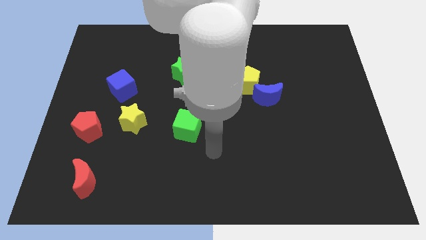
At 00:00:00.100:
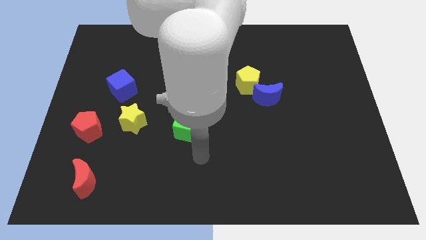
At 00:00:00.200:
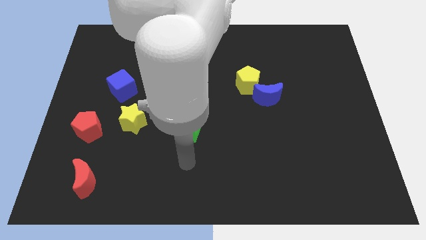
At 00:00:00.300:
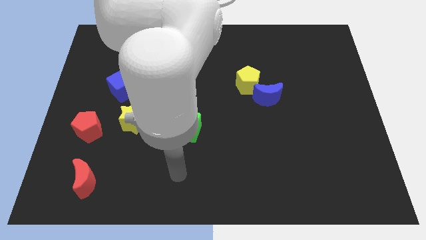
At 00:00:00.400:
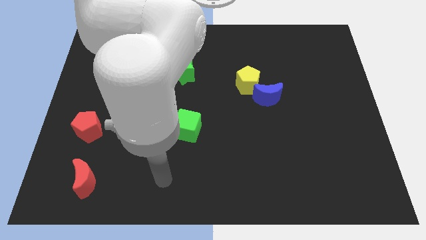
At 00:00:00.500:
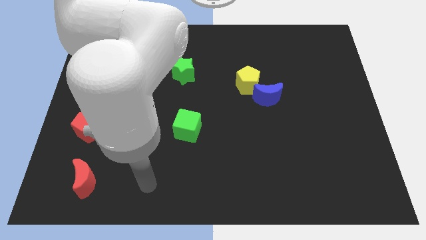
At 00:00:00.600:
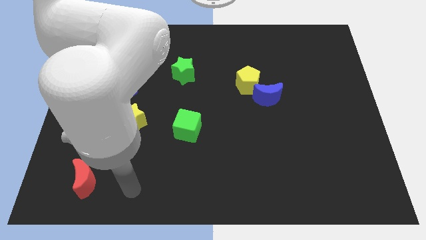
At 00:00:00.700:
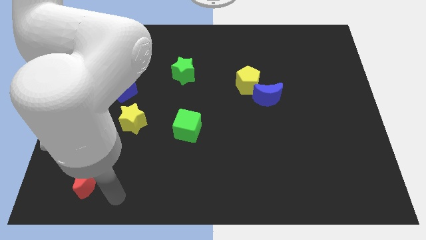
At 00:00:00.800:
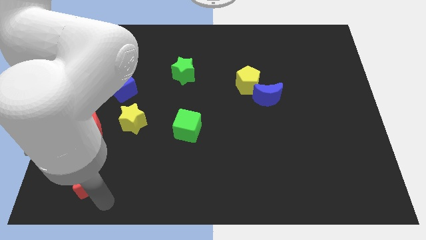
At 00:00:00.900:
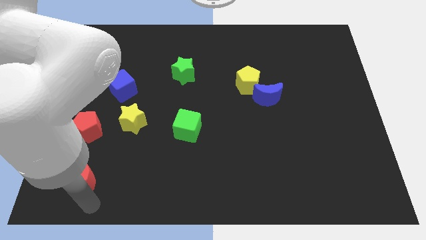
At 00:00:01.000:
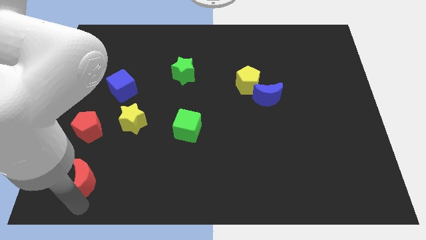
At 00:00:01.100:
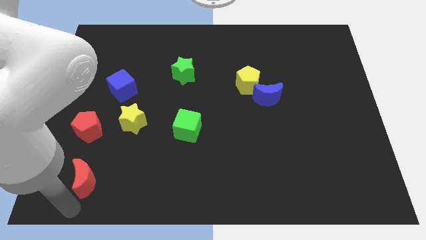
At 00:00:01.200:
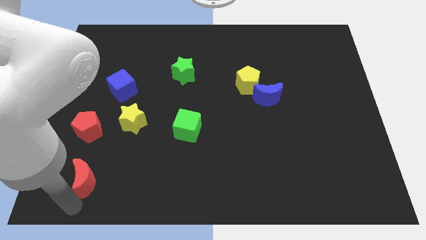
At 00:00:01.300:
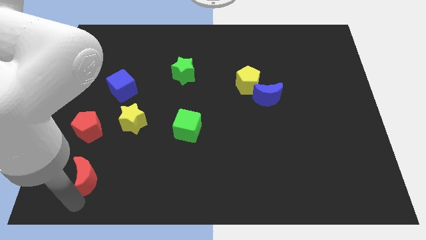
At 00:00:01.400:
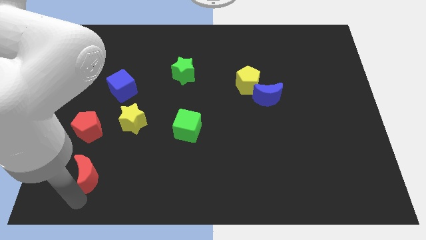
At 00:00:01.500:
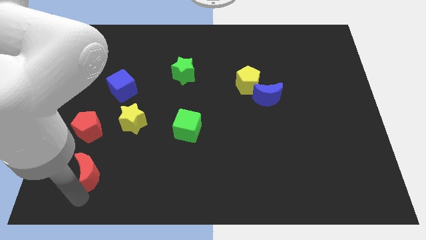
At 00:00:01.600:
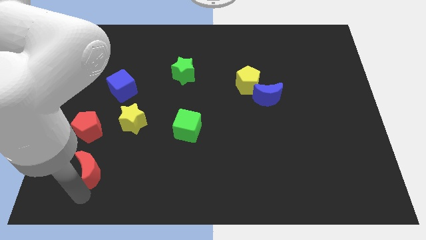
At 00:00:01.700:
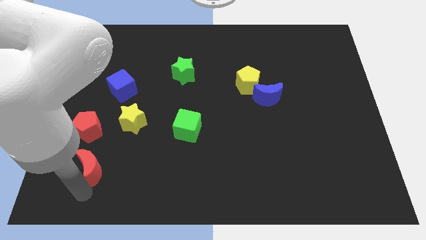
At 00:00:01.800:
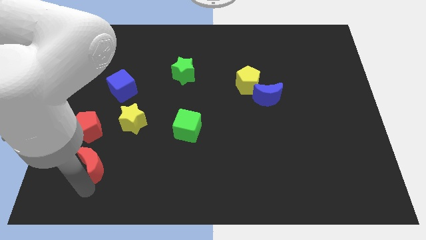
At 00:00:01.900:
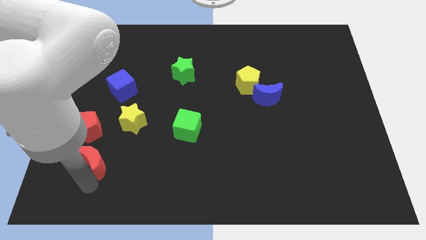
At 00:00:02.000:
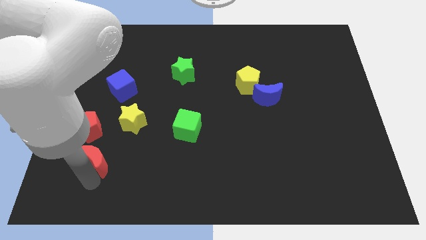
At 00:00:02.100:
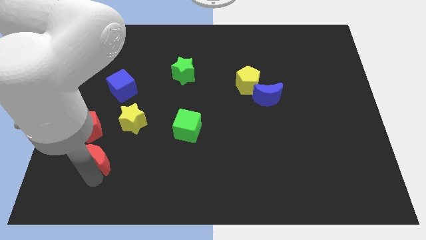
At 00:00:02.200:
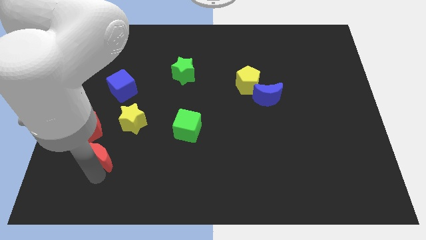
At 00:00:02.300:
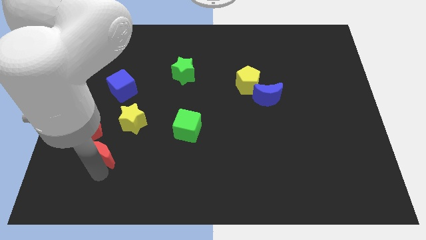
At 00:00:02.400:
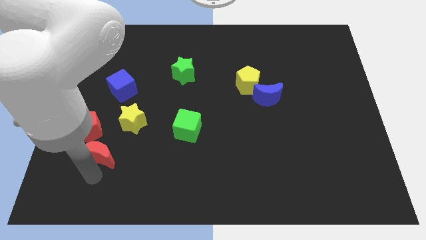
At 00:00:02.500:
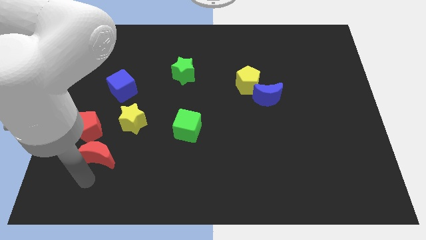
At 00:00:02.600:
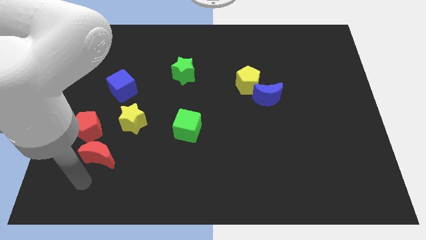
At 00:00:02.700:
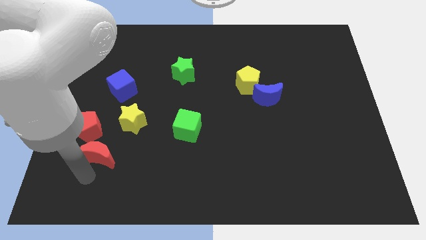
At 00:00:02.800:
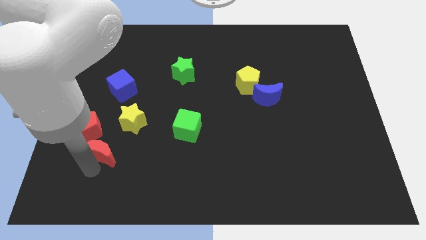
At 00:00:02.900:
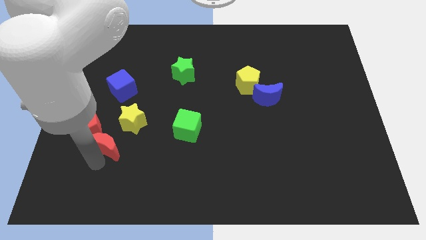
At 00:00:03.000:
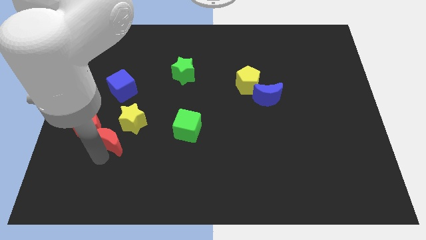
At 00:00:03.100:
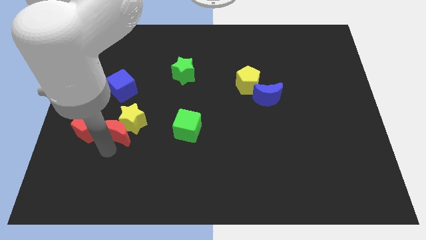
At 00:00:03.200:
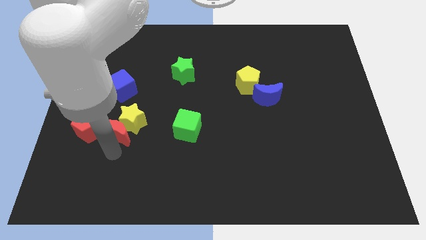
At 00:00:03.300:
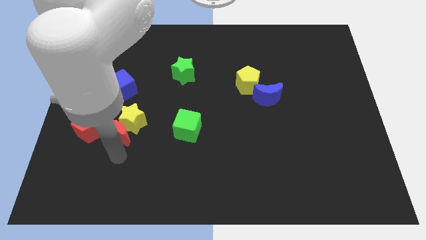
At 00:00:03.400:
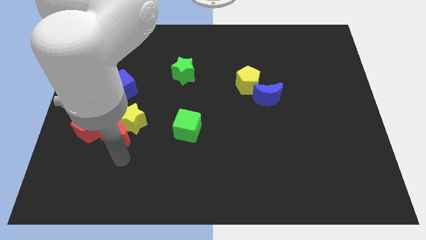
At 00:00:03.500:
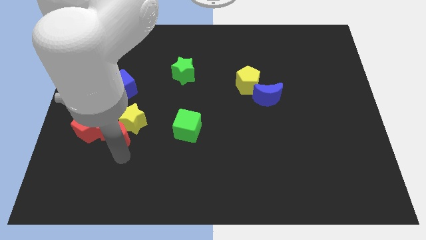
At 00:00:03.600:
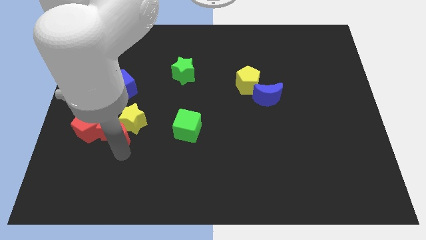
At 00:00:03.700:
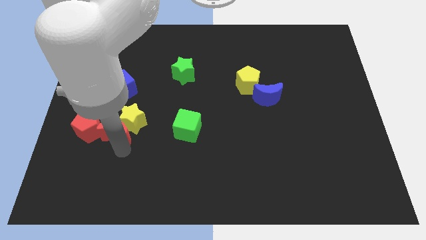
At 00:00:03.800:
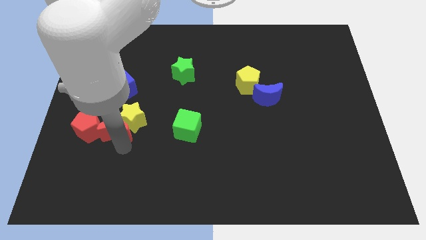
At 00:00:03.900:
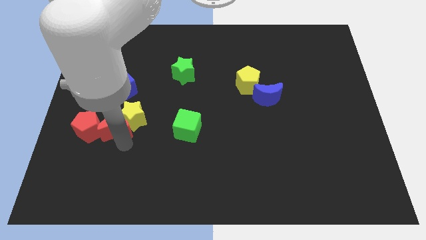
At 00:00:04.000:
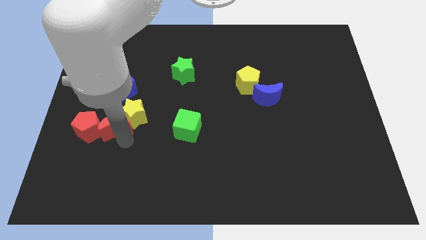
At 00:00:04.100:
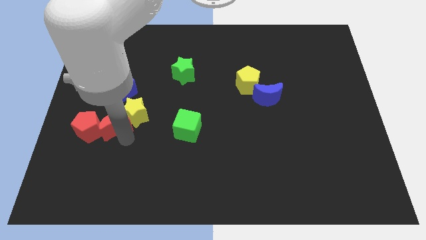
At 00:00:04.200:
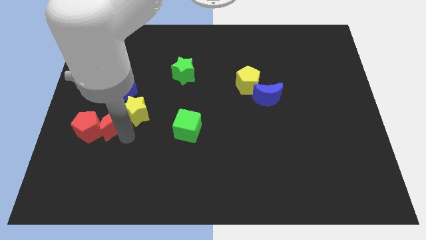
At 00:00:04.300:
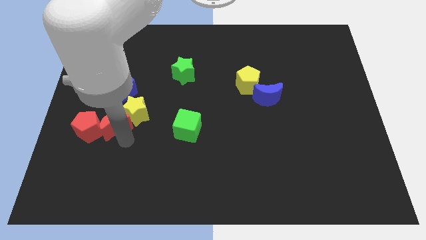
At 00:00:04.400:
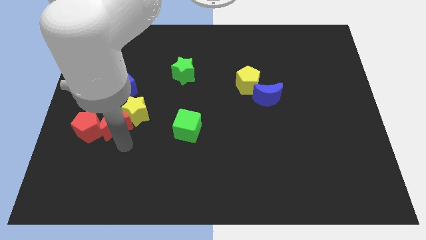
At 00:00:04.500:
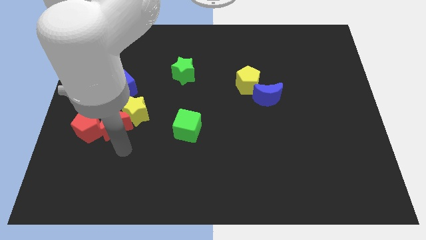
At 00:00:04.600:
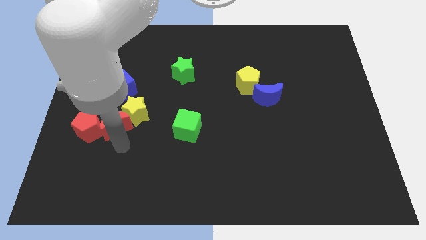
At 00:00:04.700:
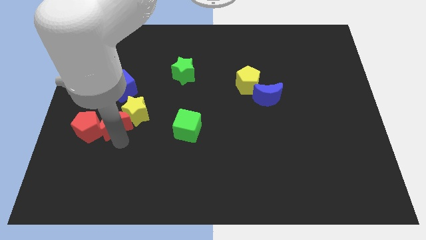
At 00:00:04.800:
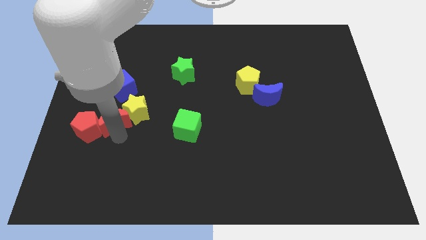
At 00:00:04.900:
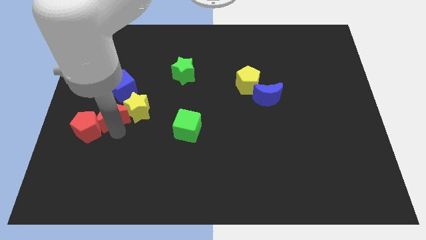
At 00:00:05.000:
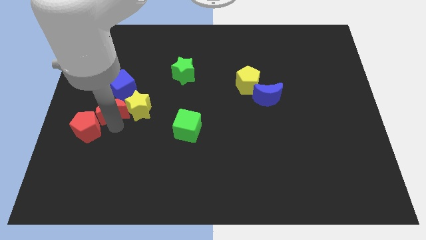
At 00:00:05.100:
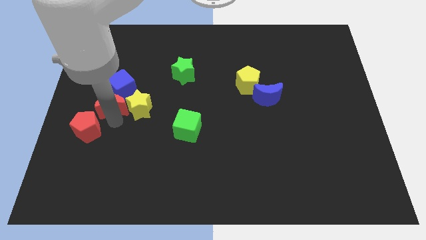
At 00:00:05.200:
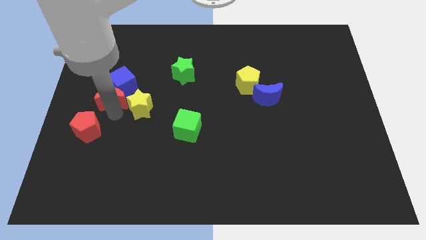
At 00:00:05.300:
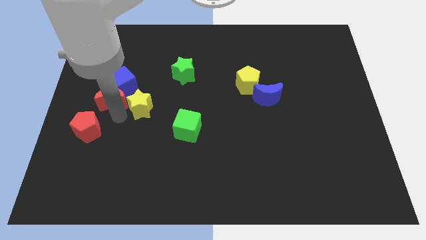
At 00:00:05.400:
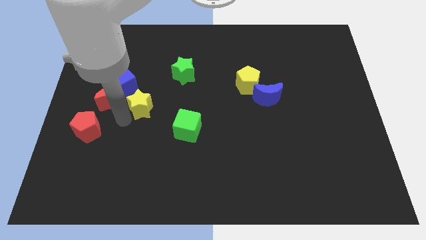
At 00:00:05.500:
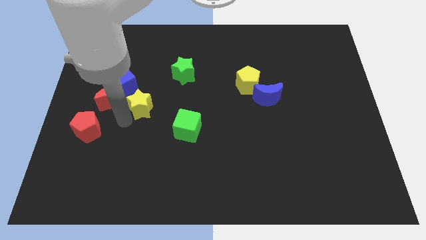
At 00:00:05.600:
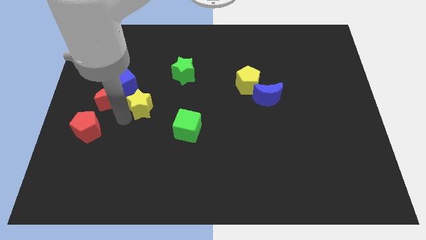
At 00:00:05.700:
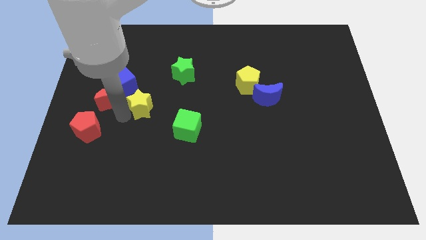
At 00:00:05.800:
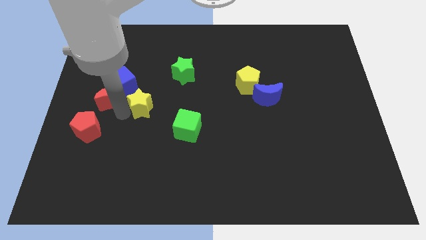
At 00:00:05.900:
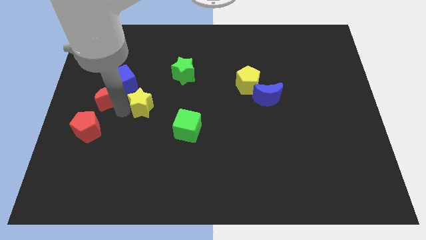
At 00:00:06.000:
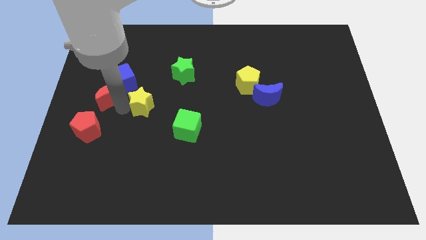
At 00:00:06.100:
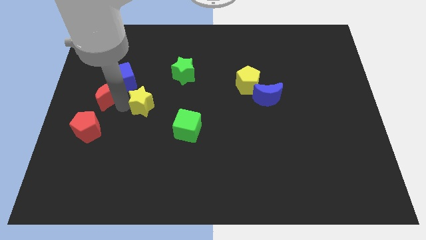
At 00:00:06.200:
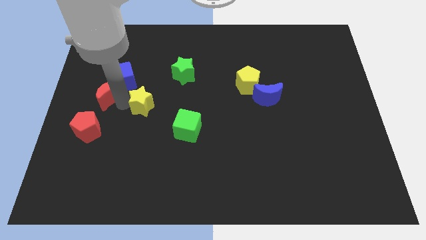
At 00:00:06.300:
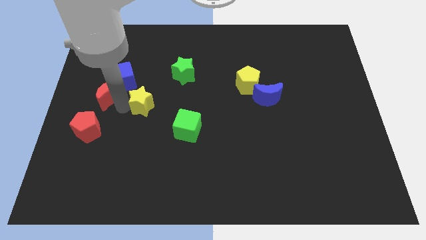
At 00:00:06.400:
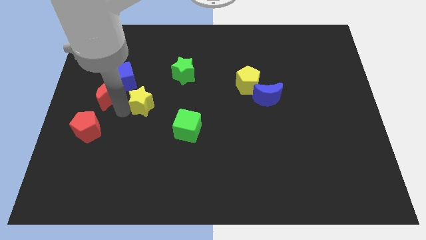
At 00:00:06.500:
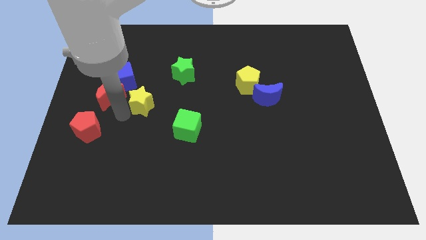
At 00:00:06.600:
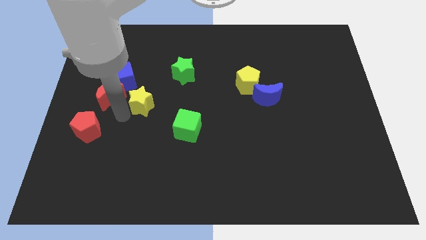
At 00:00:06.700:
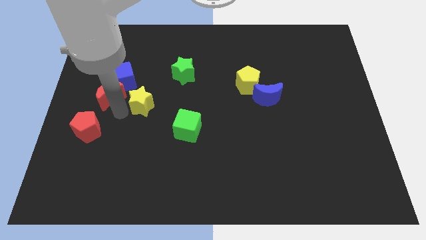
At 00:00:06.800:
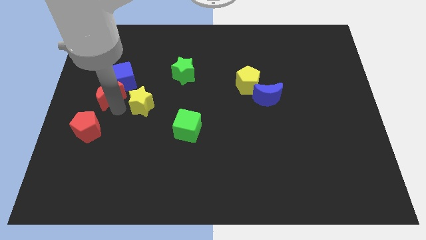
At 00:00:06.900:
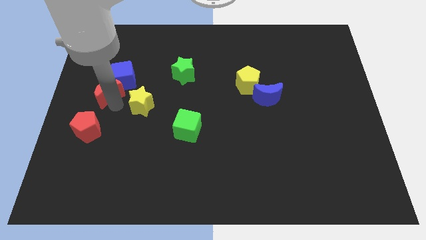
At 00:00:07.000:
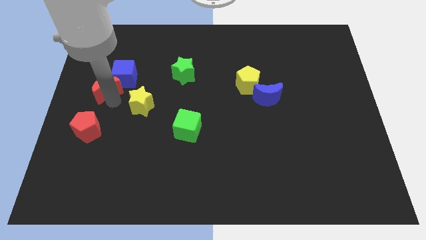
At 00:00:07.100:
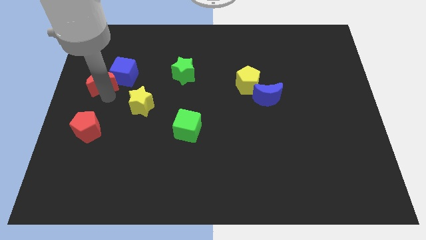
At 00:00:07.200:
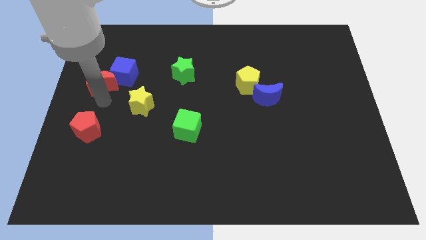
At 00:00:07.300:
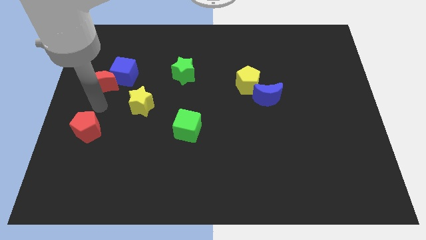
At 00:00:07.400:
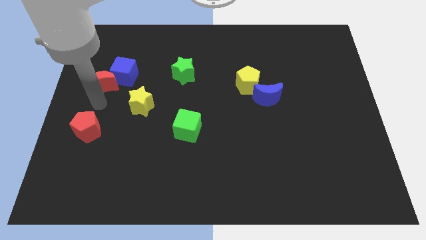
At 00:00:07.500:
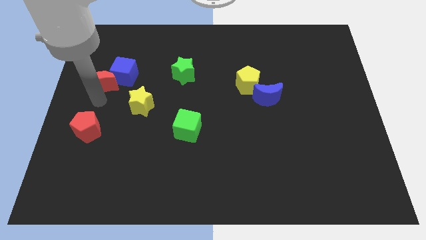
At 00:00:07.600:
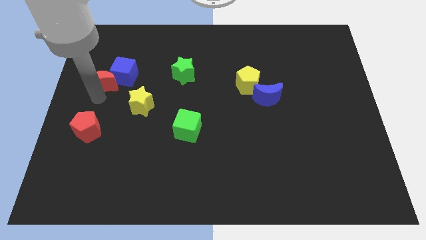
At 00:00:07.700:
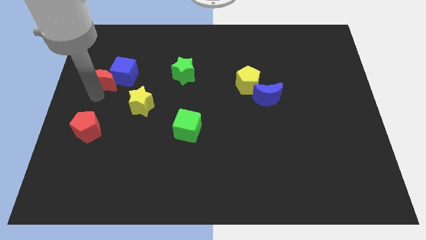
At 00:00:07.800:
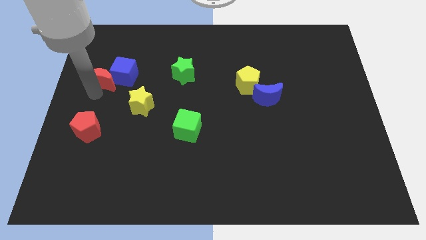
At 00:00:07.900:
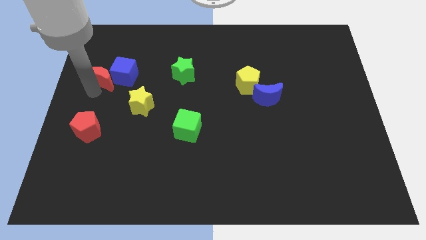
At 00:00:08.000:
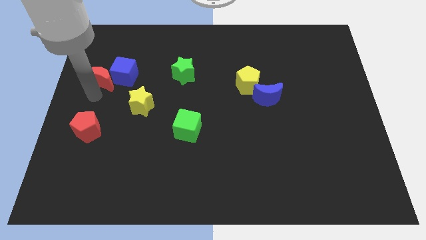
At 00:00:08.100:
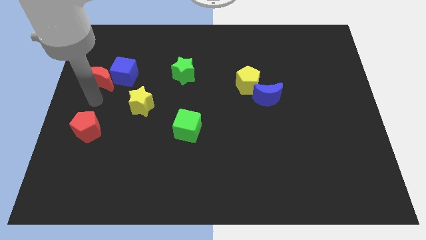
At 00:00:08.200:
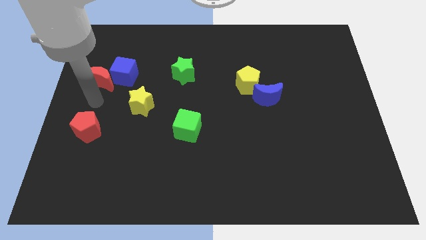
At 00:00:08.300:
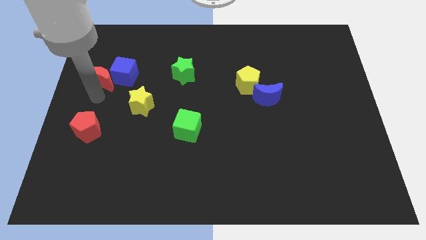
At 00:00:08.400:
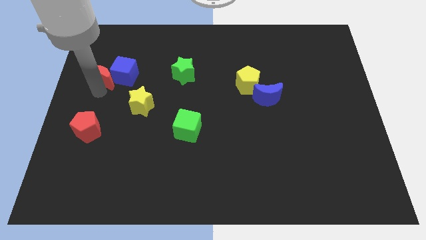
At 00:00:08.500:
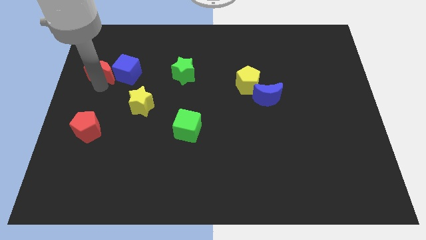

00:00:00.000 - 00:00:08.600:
slide the red moon diagonally up and to the left of the blue cube
